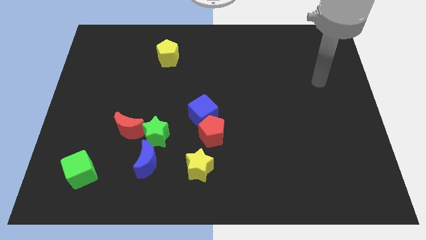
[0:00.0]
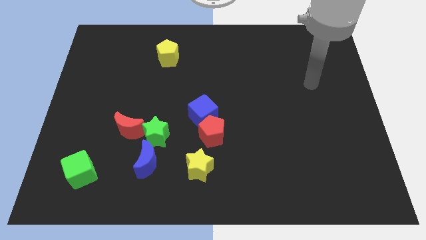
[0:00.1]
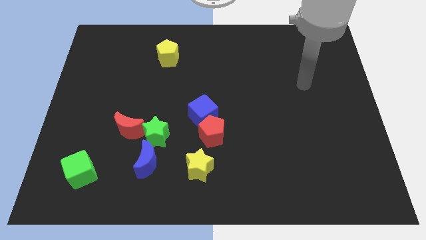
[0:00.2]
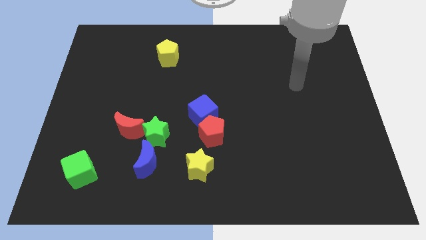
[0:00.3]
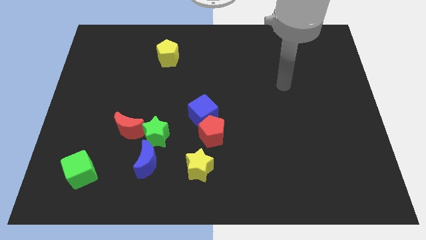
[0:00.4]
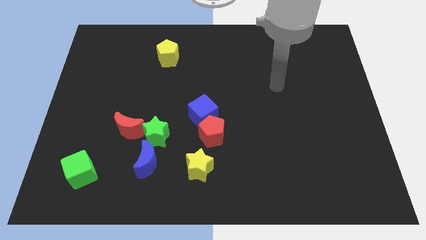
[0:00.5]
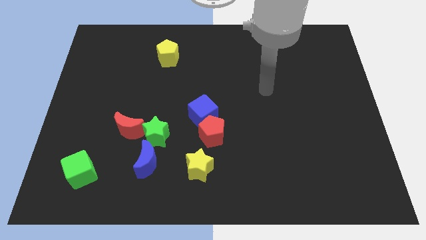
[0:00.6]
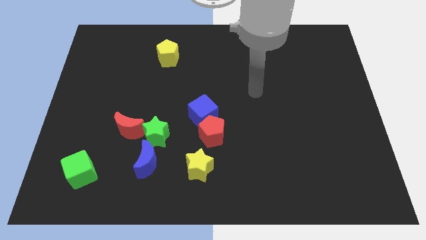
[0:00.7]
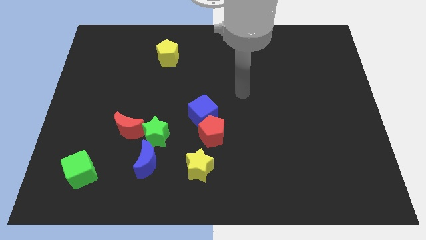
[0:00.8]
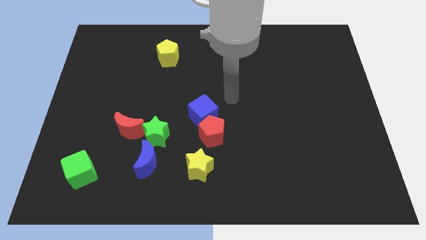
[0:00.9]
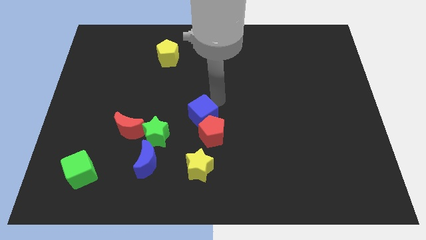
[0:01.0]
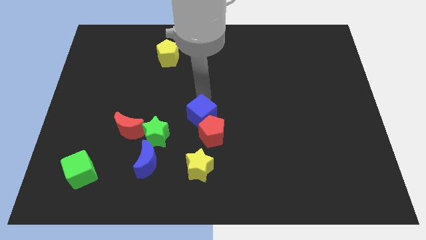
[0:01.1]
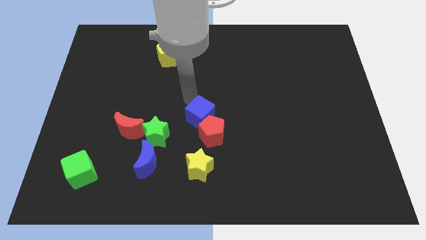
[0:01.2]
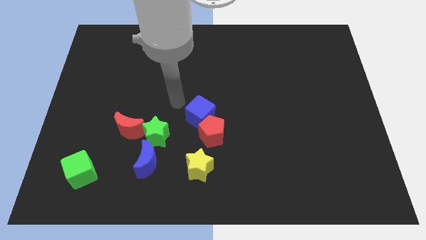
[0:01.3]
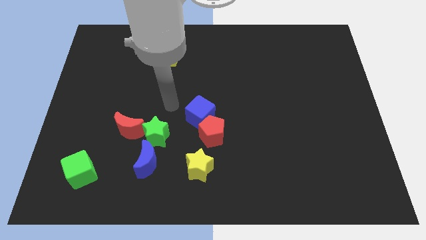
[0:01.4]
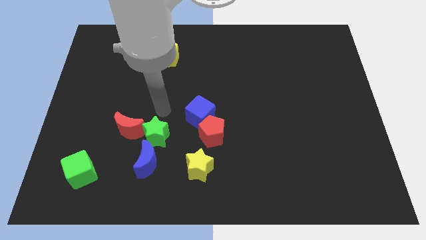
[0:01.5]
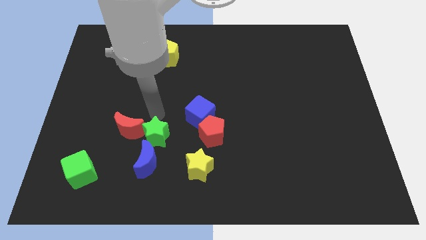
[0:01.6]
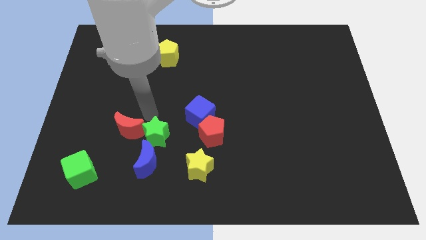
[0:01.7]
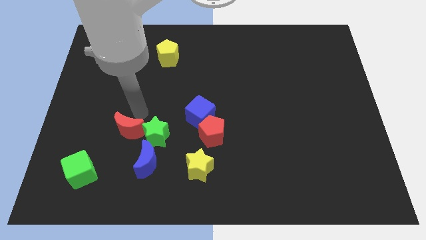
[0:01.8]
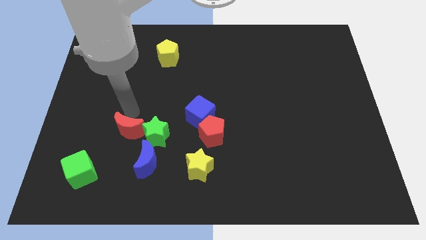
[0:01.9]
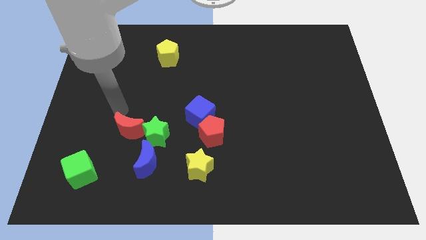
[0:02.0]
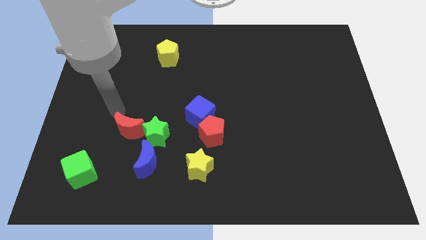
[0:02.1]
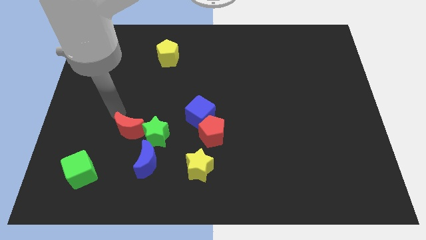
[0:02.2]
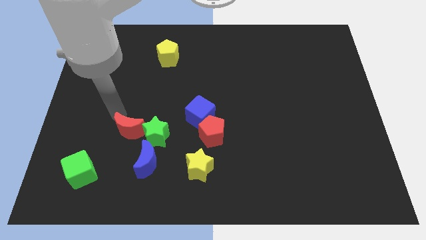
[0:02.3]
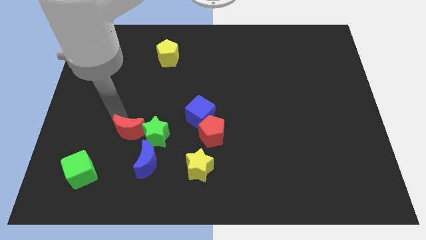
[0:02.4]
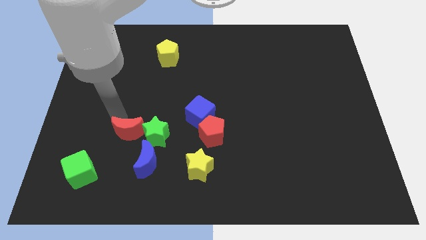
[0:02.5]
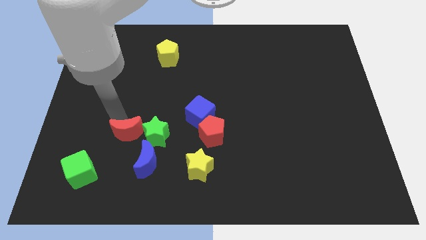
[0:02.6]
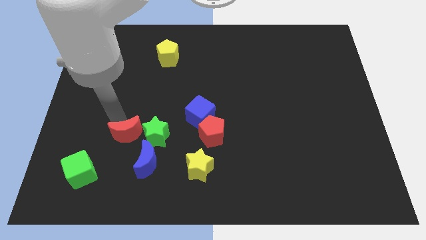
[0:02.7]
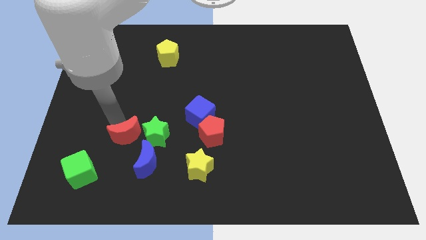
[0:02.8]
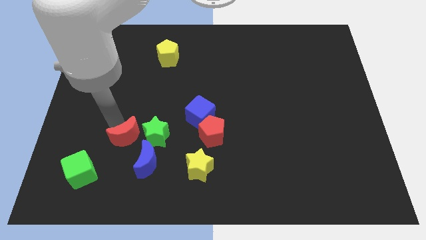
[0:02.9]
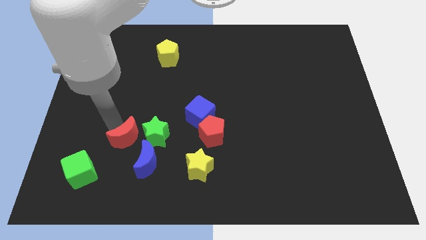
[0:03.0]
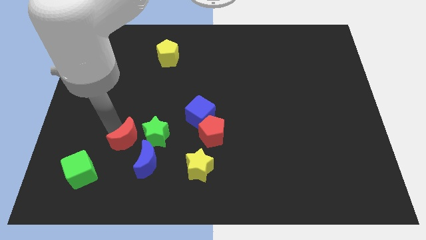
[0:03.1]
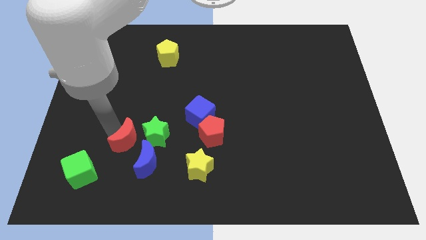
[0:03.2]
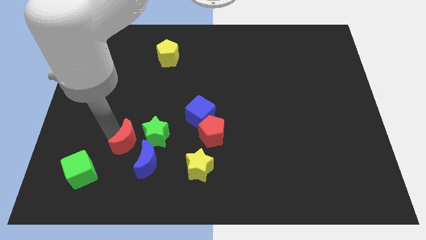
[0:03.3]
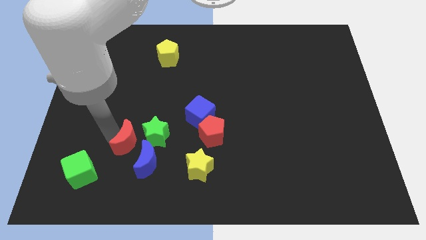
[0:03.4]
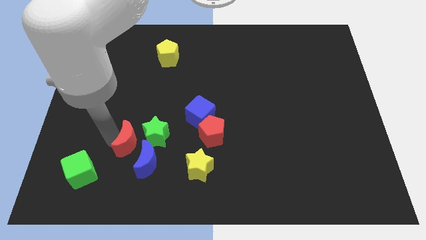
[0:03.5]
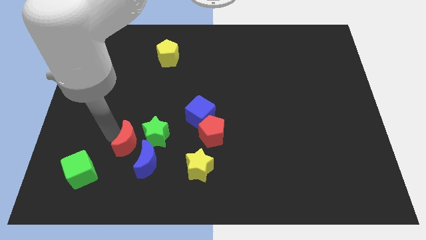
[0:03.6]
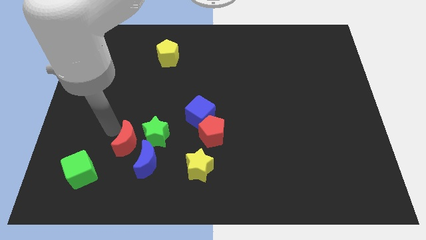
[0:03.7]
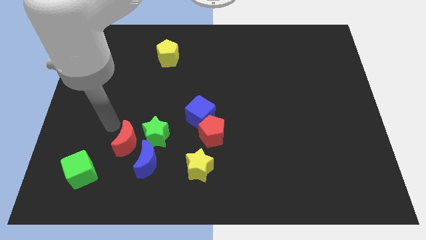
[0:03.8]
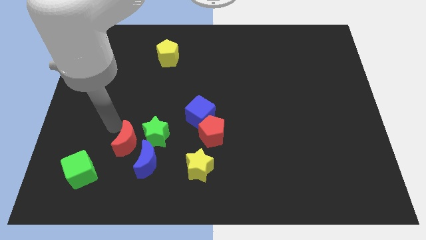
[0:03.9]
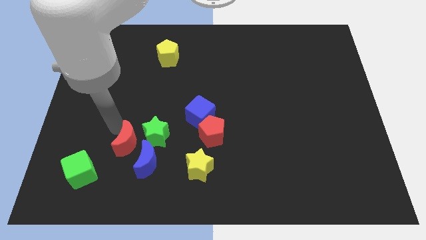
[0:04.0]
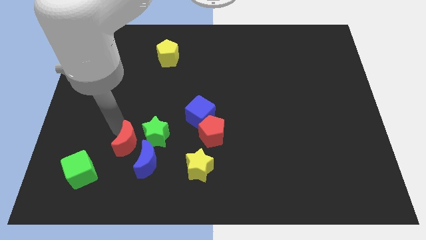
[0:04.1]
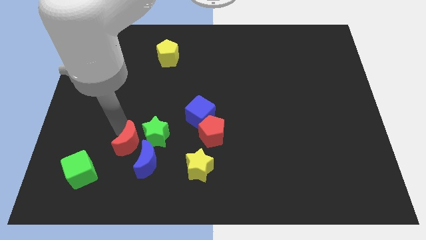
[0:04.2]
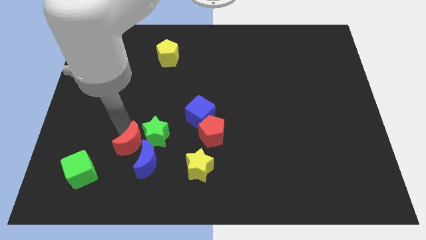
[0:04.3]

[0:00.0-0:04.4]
push the red moon to the blue moon

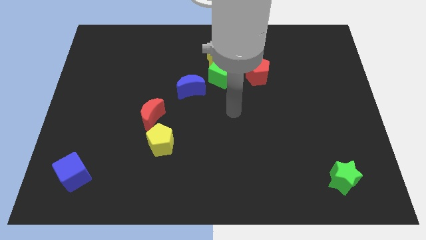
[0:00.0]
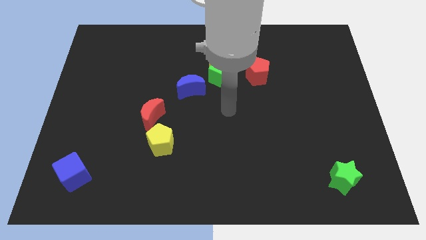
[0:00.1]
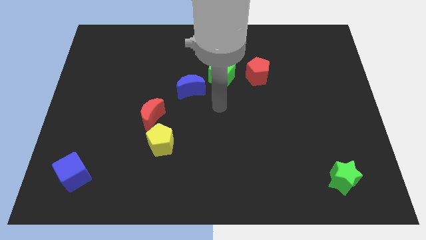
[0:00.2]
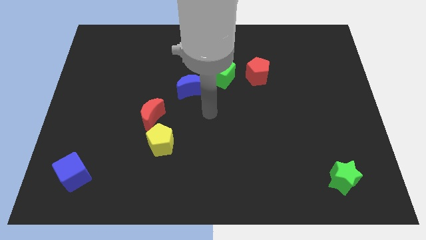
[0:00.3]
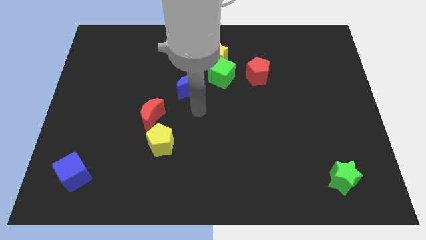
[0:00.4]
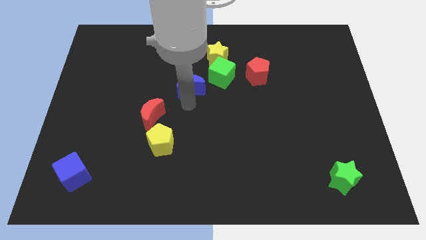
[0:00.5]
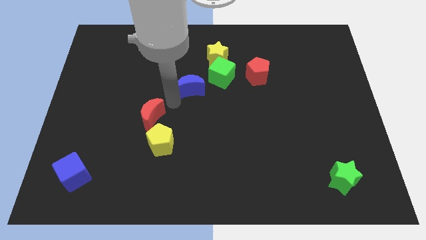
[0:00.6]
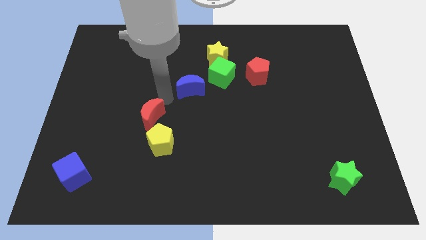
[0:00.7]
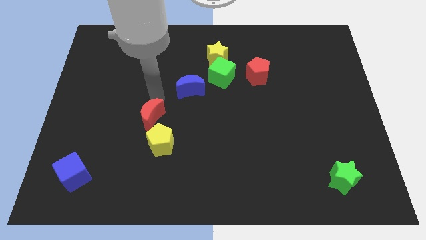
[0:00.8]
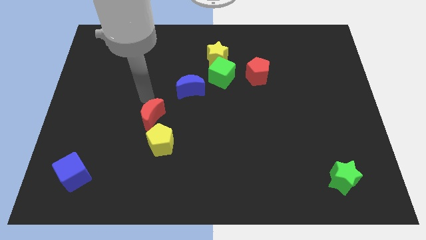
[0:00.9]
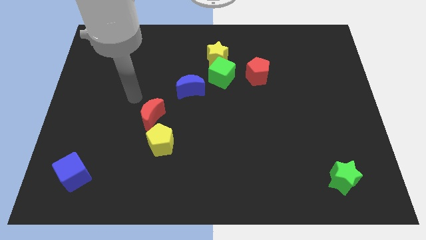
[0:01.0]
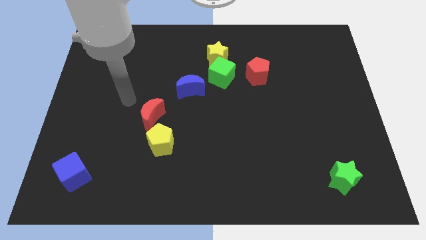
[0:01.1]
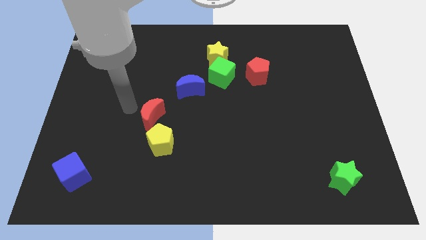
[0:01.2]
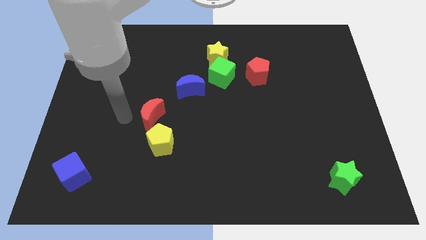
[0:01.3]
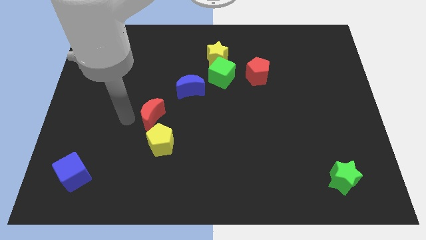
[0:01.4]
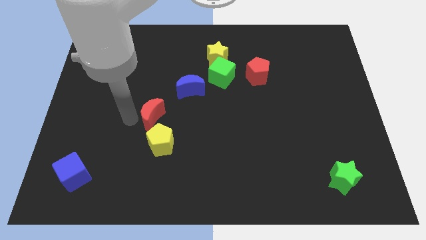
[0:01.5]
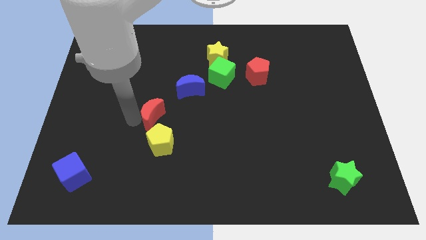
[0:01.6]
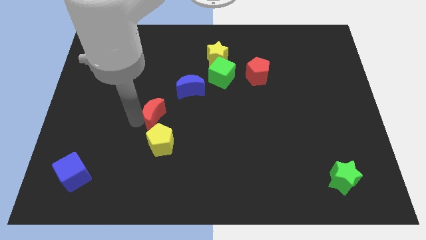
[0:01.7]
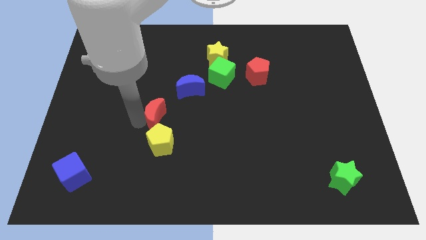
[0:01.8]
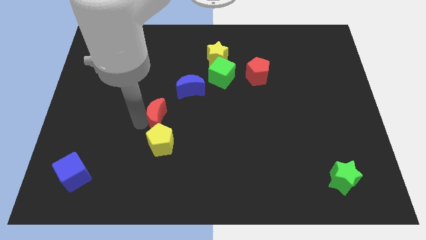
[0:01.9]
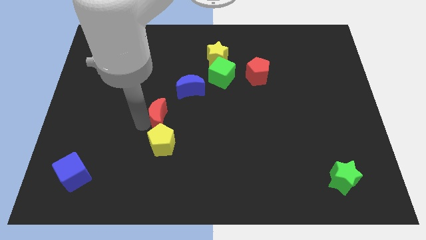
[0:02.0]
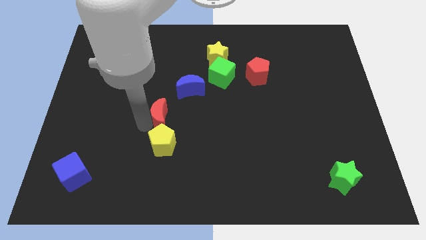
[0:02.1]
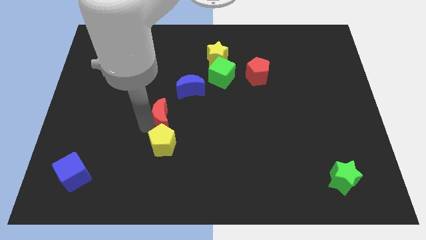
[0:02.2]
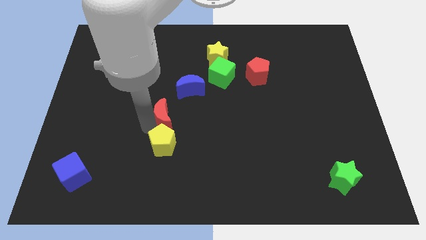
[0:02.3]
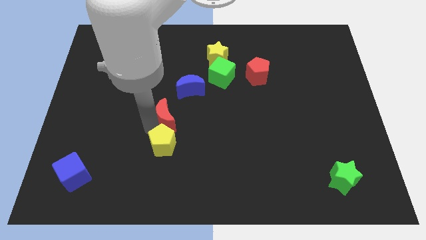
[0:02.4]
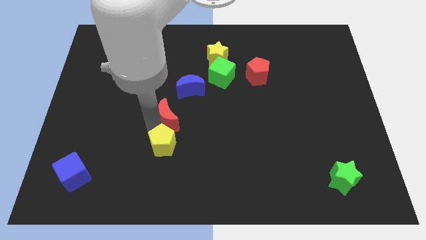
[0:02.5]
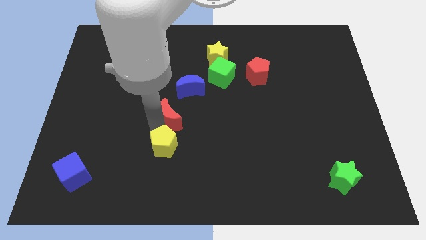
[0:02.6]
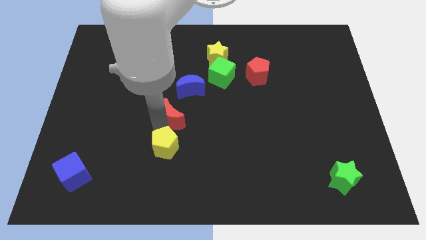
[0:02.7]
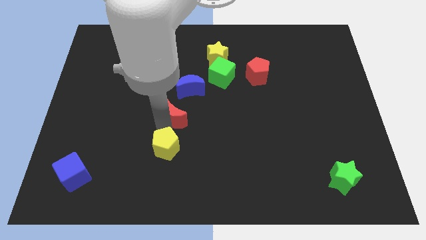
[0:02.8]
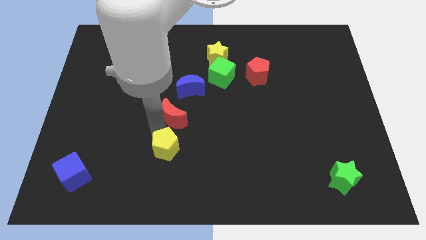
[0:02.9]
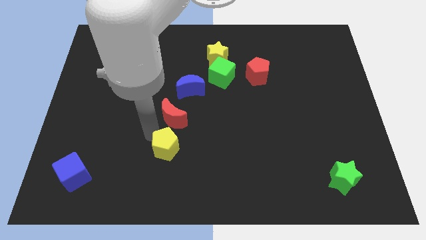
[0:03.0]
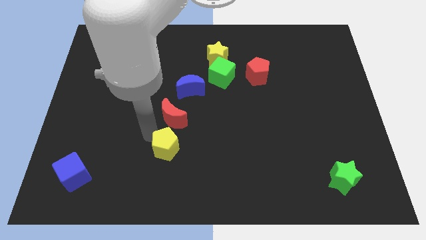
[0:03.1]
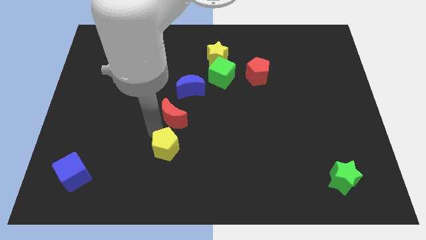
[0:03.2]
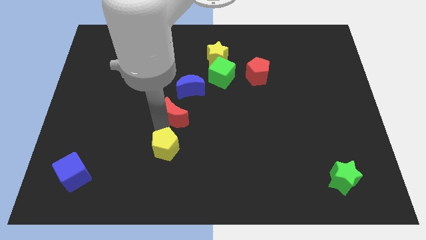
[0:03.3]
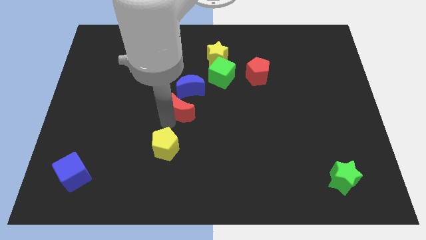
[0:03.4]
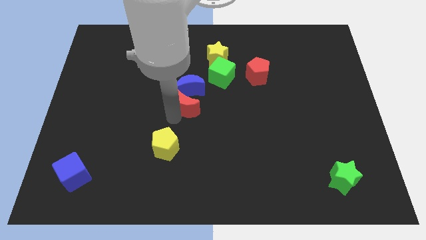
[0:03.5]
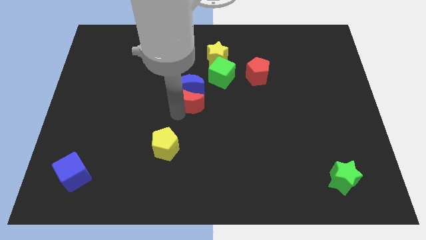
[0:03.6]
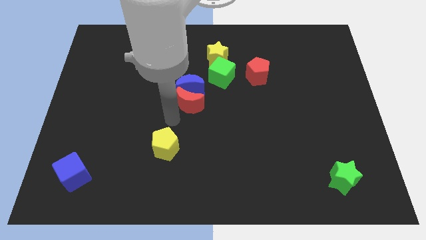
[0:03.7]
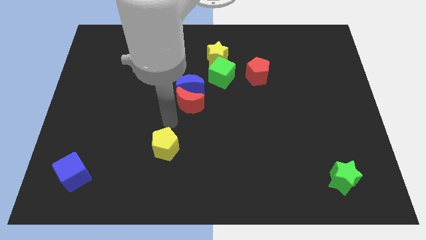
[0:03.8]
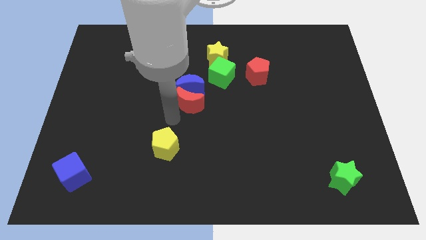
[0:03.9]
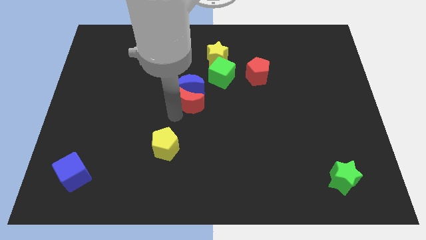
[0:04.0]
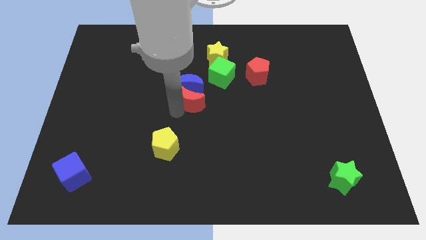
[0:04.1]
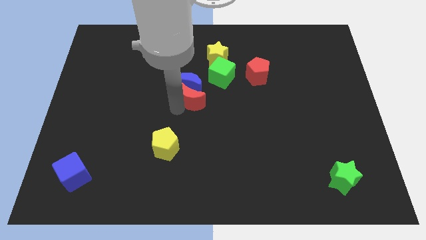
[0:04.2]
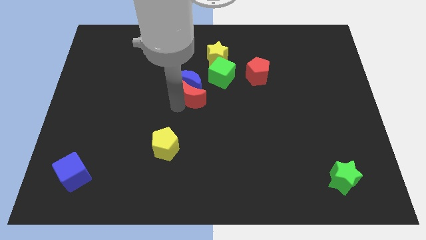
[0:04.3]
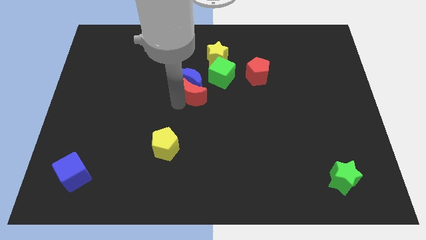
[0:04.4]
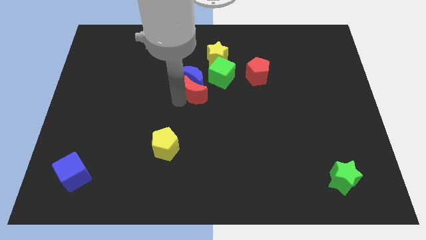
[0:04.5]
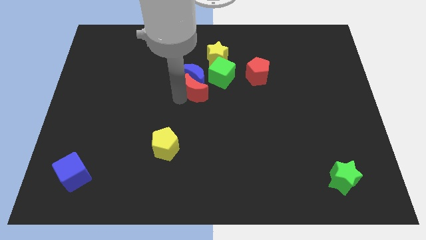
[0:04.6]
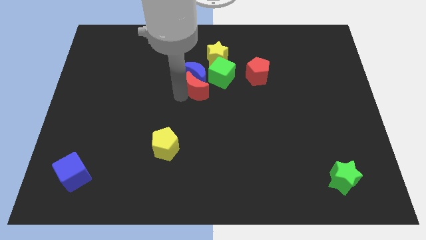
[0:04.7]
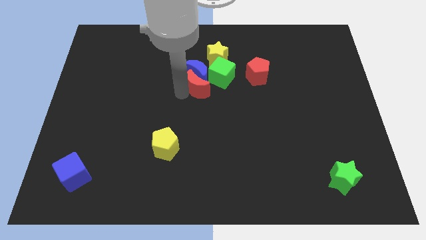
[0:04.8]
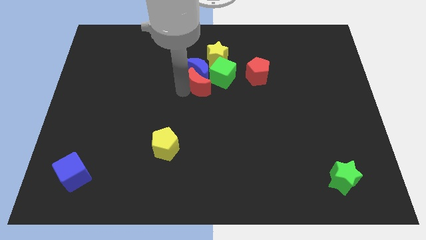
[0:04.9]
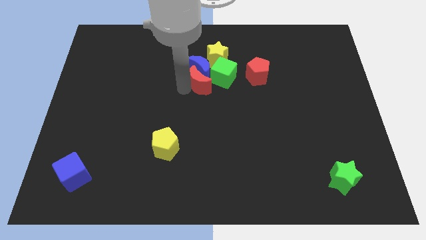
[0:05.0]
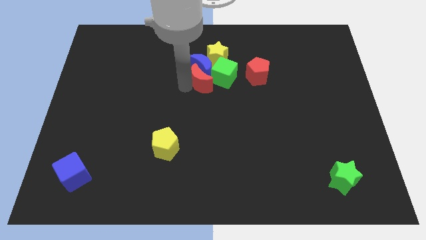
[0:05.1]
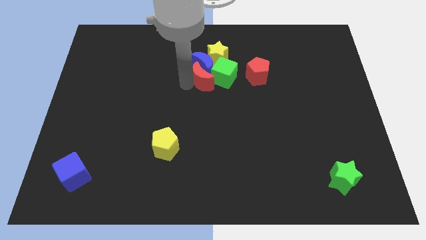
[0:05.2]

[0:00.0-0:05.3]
push the red moon towards the green cube
